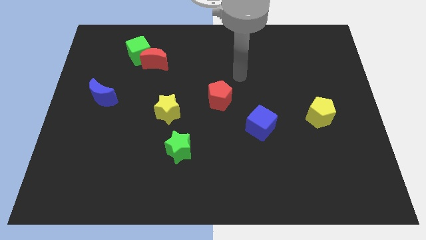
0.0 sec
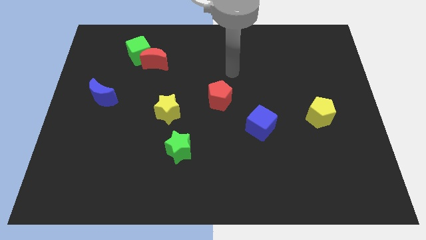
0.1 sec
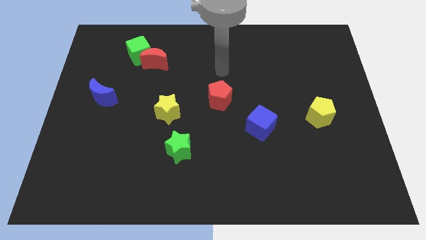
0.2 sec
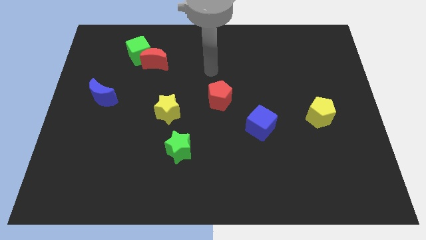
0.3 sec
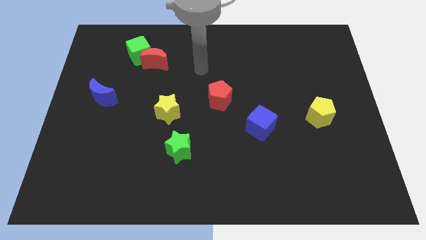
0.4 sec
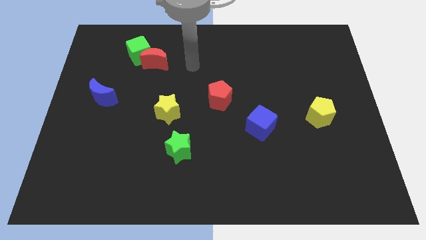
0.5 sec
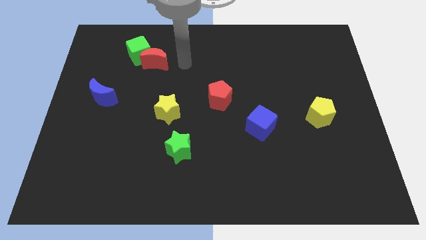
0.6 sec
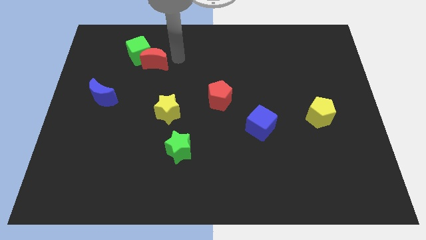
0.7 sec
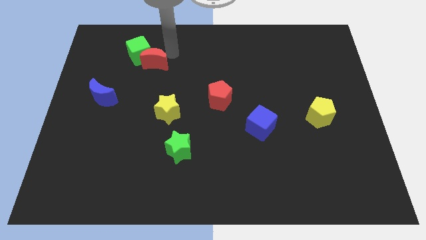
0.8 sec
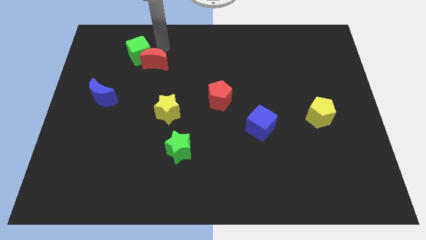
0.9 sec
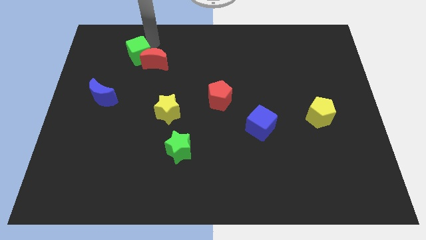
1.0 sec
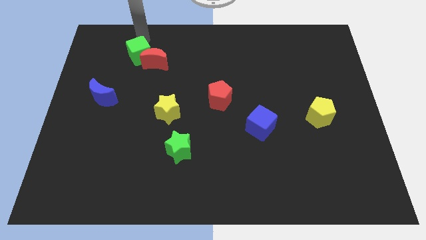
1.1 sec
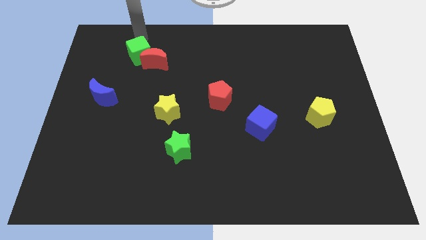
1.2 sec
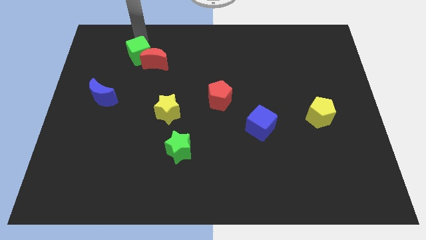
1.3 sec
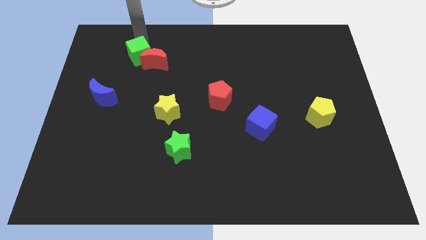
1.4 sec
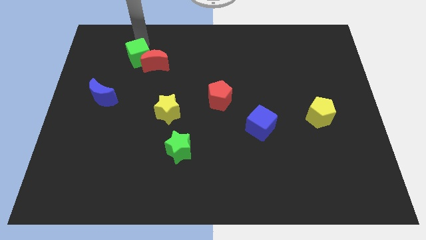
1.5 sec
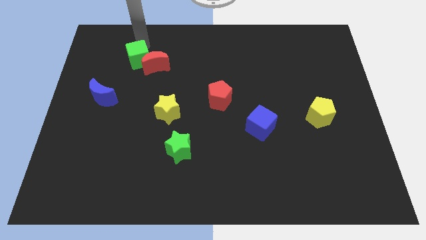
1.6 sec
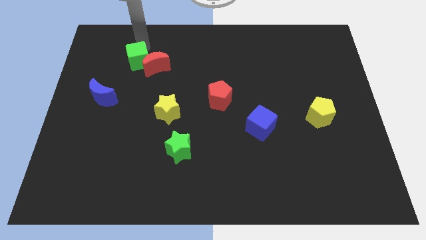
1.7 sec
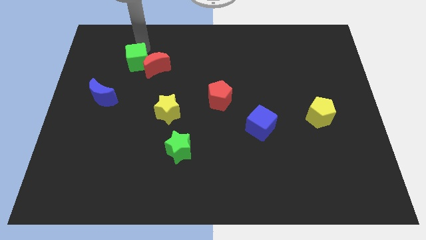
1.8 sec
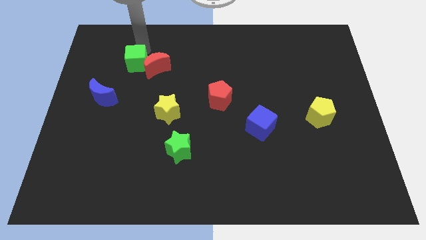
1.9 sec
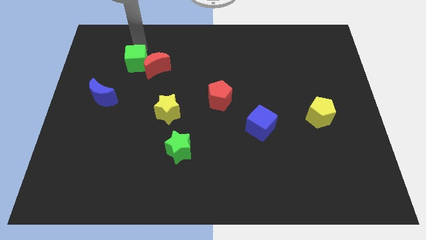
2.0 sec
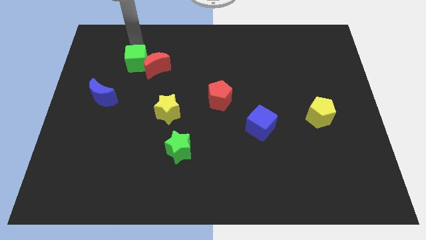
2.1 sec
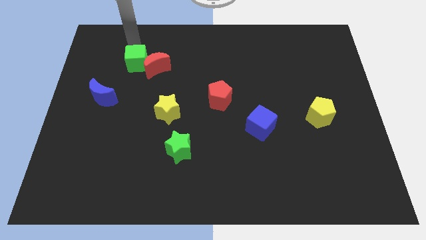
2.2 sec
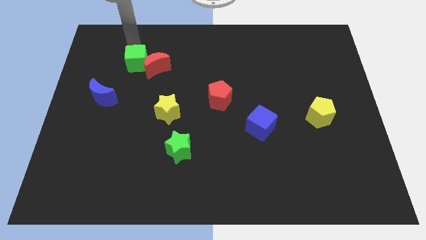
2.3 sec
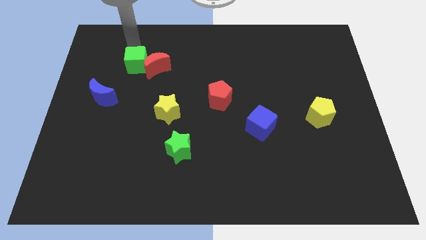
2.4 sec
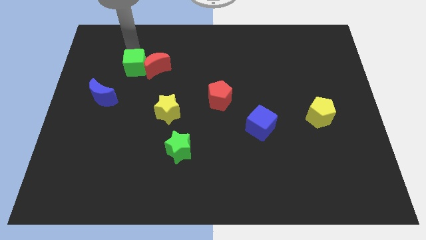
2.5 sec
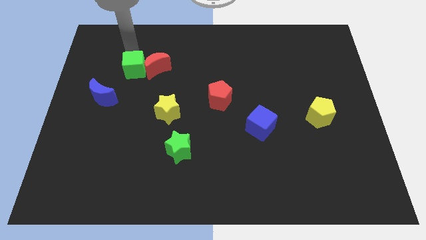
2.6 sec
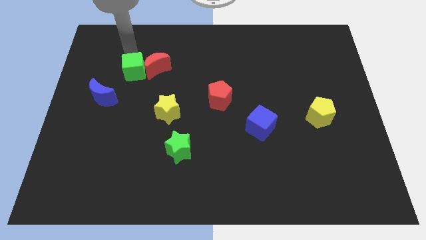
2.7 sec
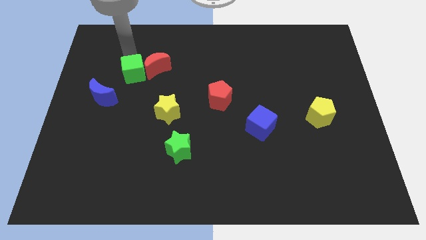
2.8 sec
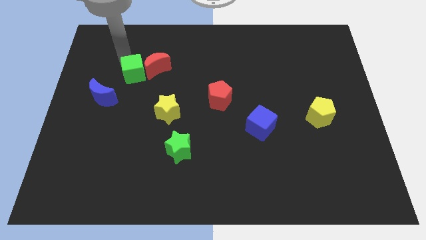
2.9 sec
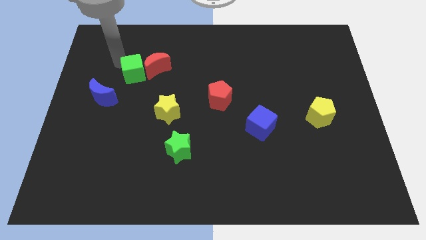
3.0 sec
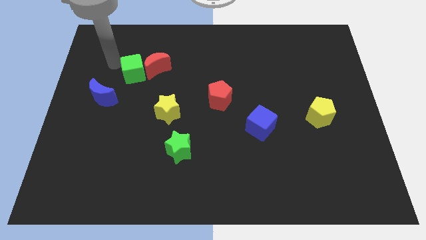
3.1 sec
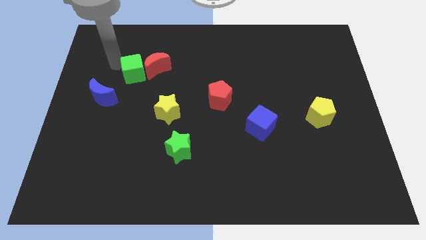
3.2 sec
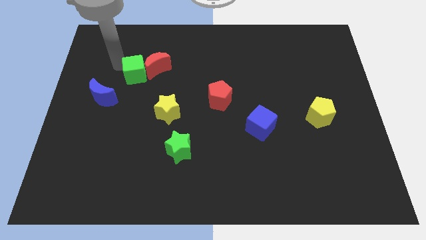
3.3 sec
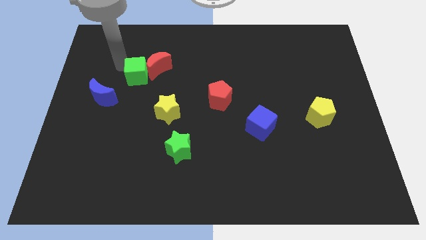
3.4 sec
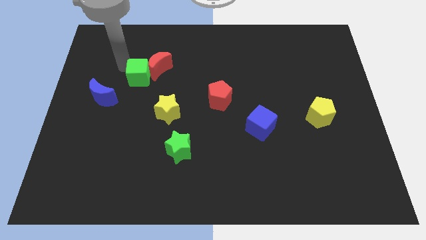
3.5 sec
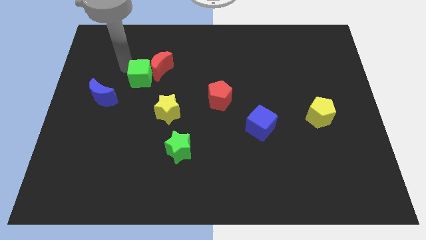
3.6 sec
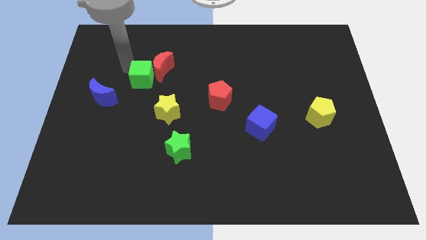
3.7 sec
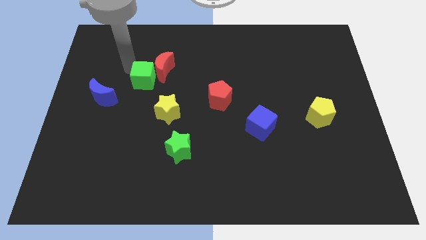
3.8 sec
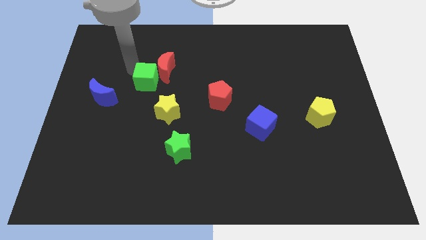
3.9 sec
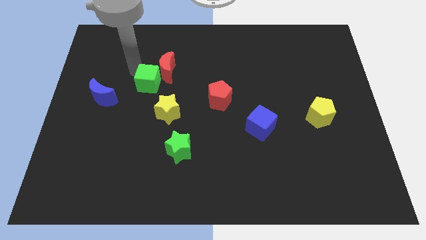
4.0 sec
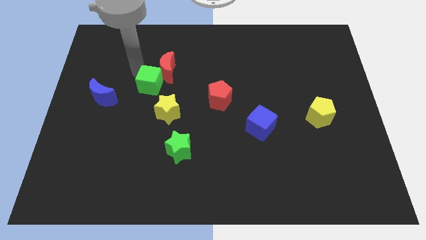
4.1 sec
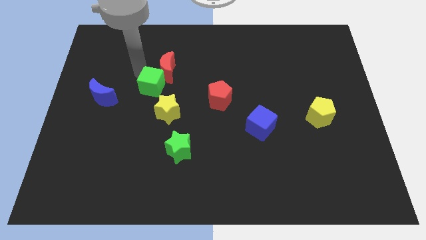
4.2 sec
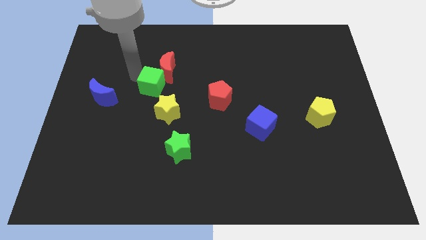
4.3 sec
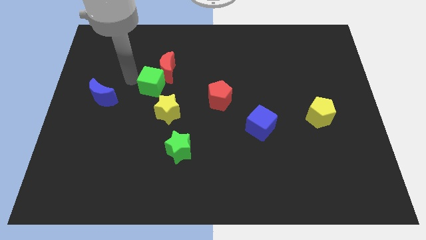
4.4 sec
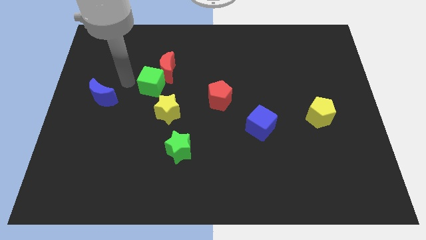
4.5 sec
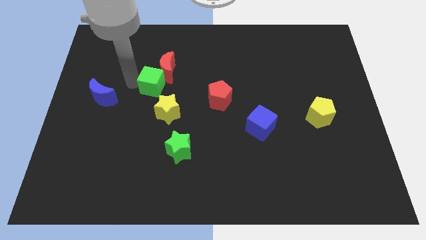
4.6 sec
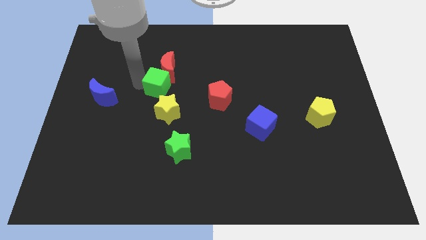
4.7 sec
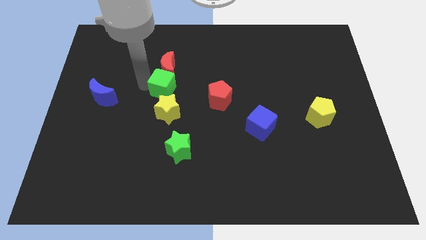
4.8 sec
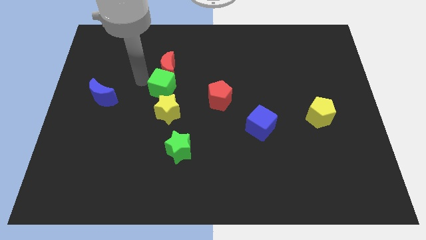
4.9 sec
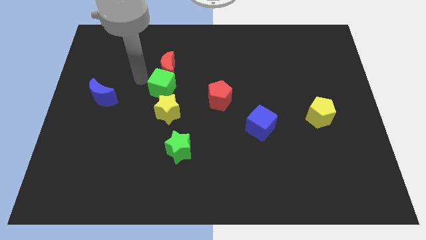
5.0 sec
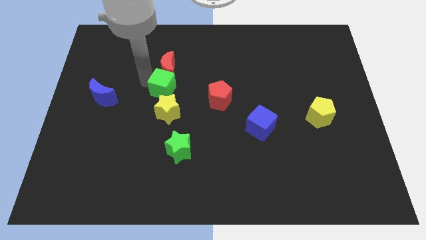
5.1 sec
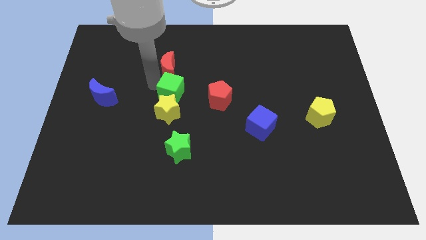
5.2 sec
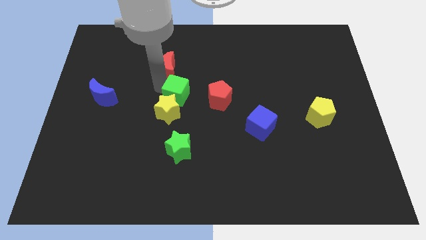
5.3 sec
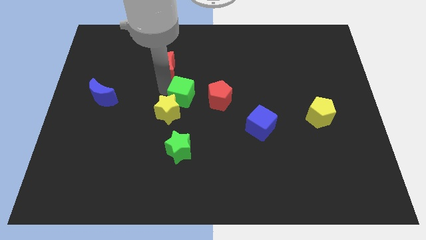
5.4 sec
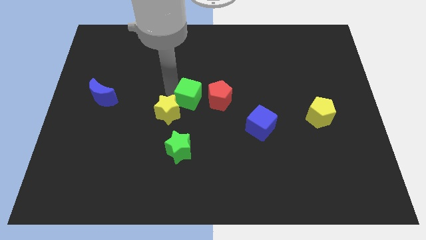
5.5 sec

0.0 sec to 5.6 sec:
push the green cube diagonally down and to the right

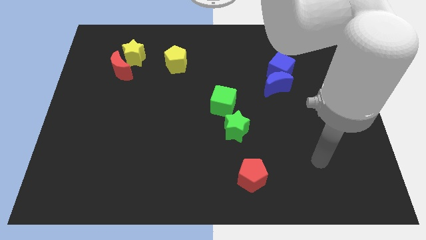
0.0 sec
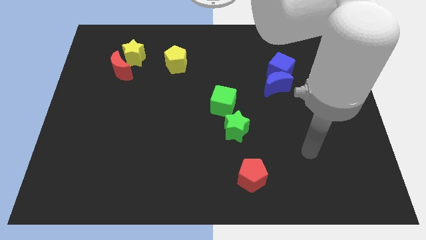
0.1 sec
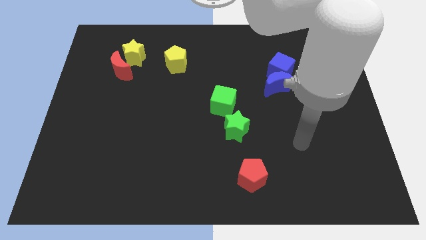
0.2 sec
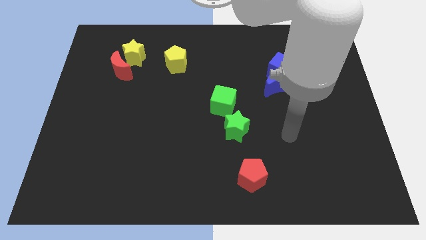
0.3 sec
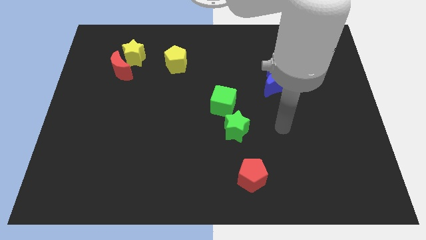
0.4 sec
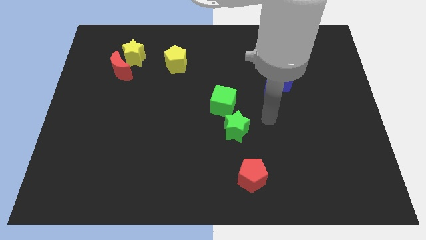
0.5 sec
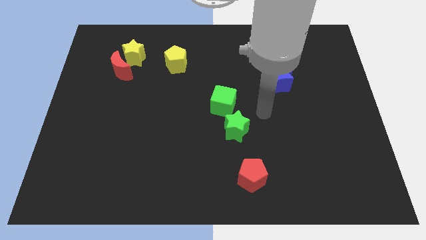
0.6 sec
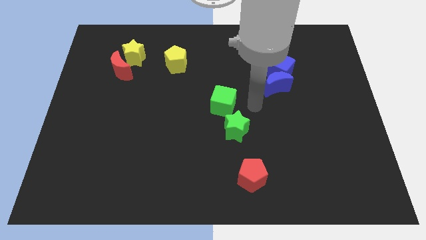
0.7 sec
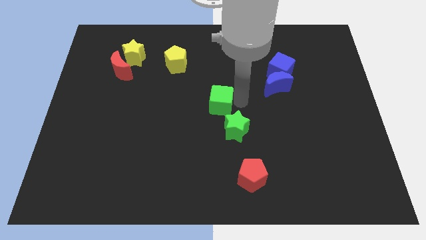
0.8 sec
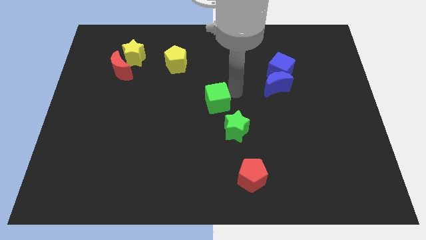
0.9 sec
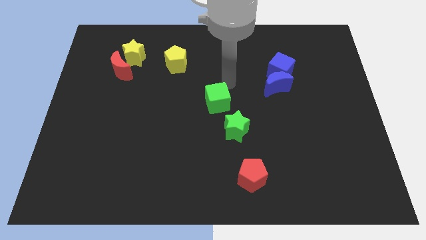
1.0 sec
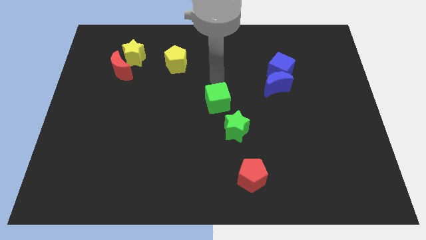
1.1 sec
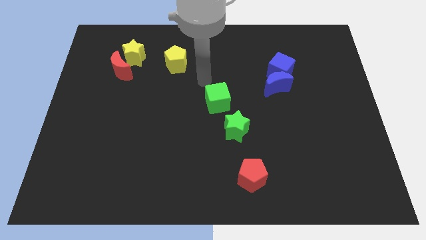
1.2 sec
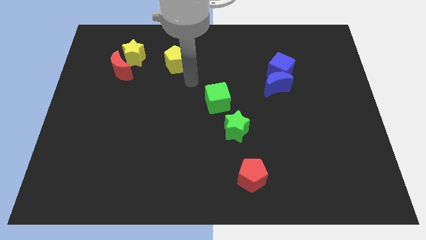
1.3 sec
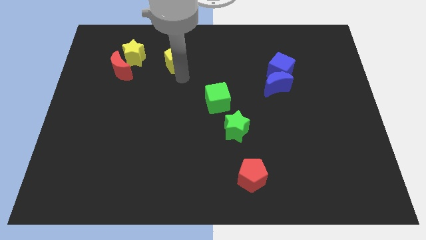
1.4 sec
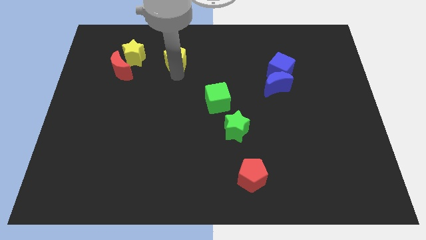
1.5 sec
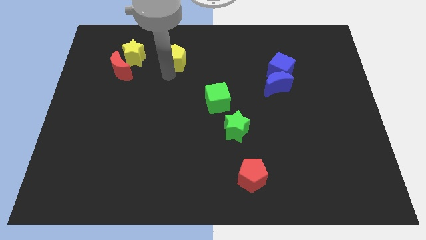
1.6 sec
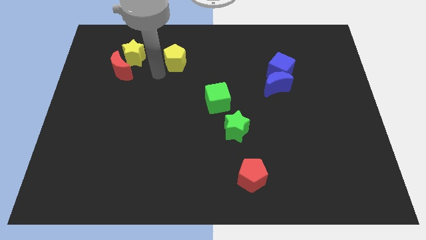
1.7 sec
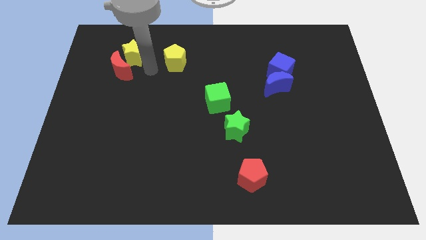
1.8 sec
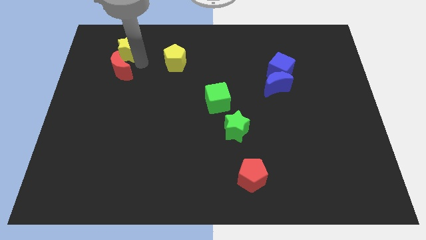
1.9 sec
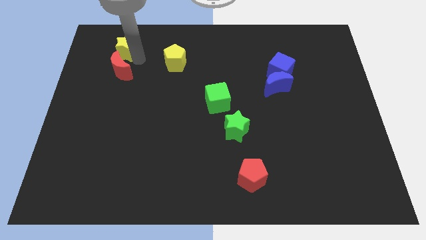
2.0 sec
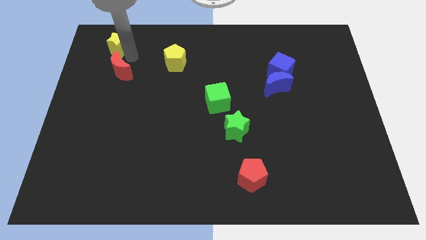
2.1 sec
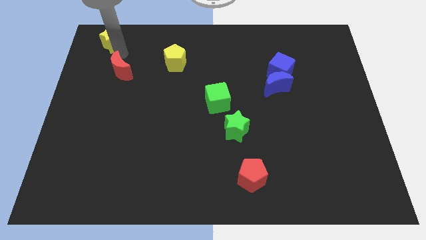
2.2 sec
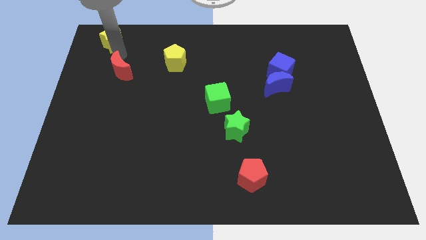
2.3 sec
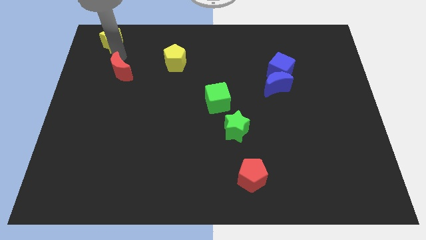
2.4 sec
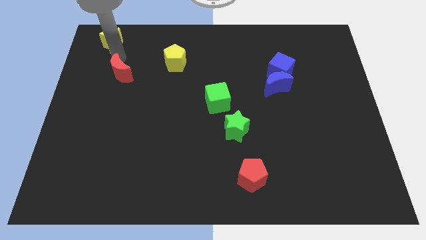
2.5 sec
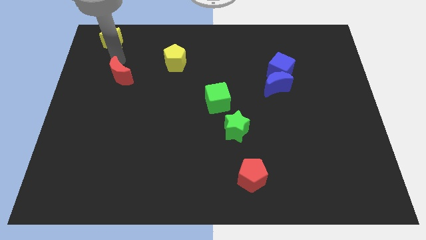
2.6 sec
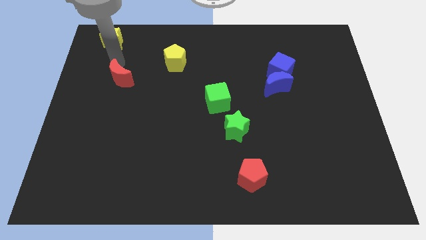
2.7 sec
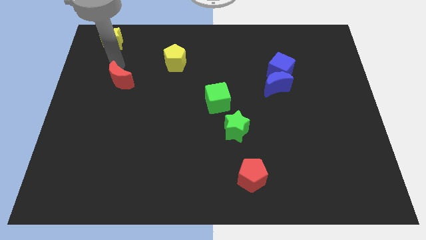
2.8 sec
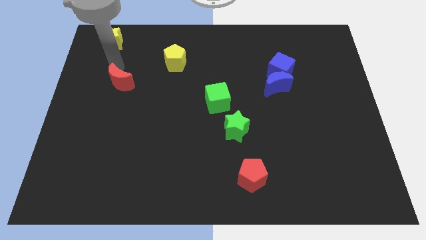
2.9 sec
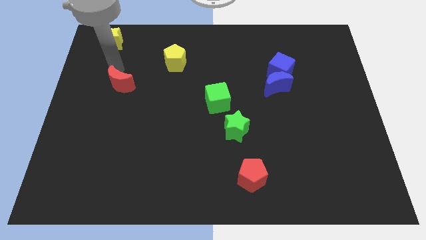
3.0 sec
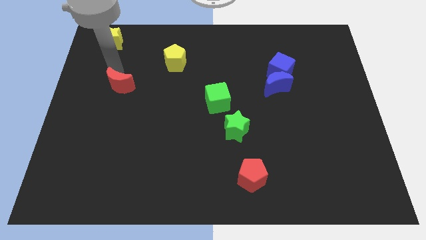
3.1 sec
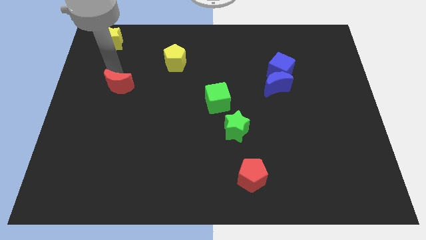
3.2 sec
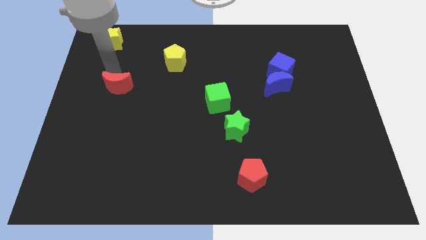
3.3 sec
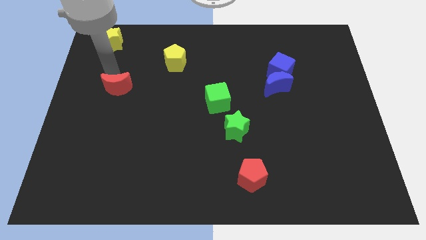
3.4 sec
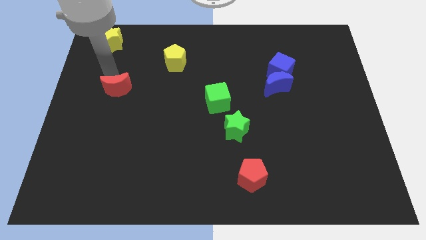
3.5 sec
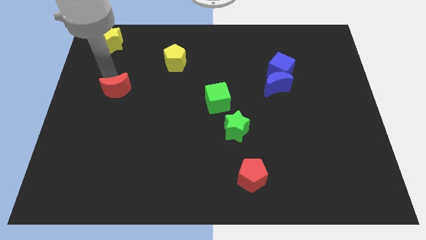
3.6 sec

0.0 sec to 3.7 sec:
slide the red moon a little bit down
